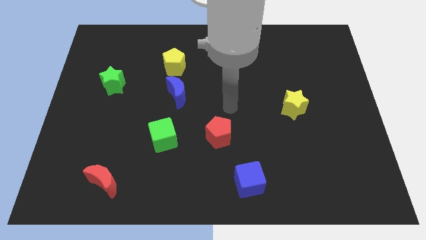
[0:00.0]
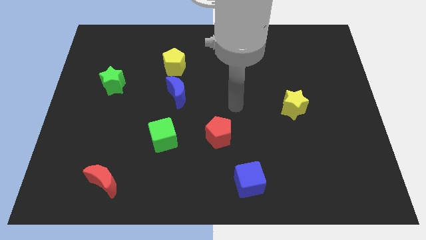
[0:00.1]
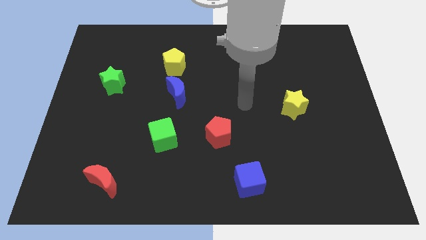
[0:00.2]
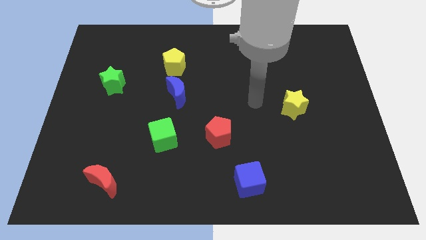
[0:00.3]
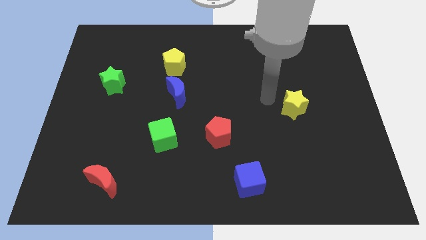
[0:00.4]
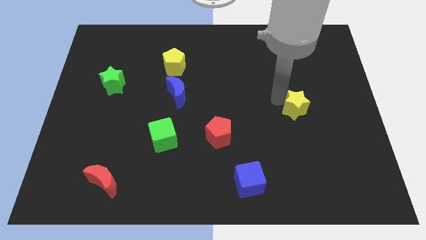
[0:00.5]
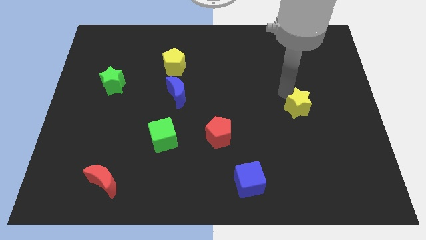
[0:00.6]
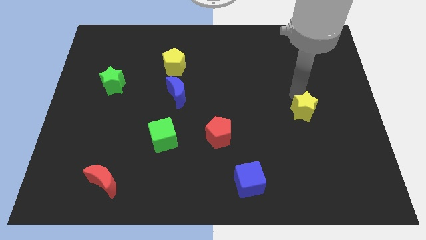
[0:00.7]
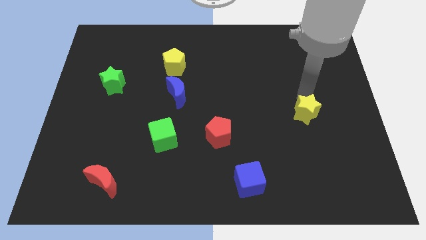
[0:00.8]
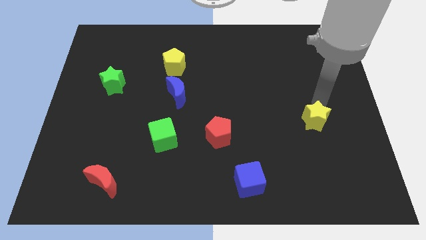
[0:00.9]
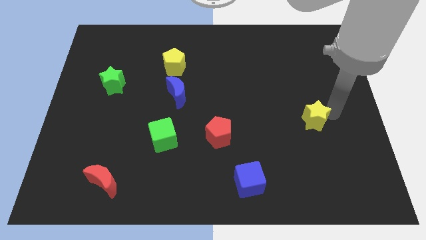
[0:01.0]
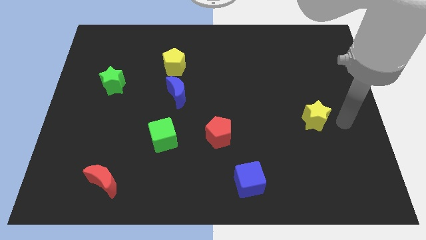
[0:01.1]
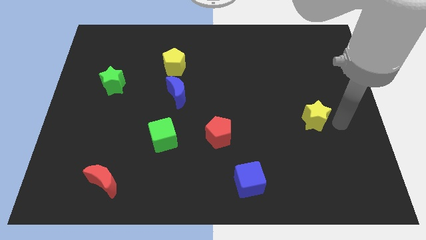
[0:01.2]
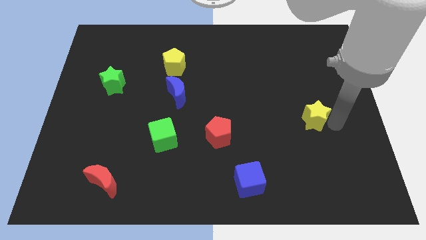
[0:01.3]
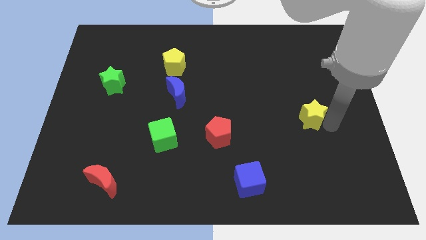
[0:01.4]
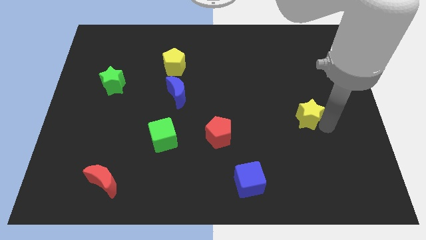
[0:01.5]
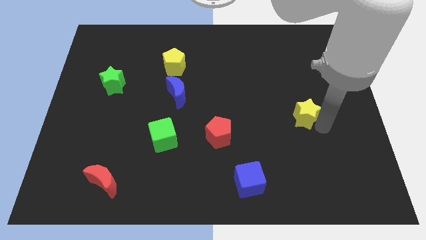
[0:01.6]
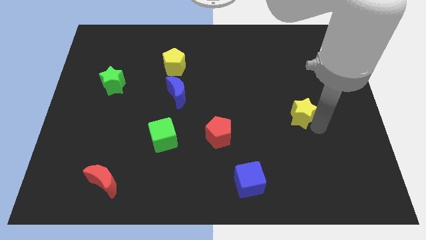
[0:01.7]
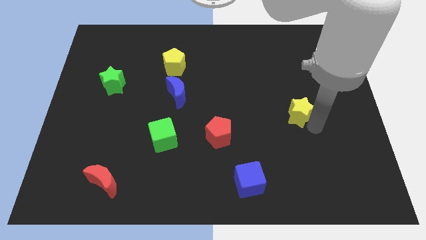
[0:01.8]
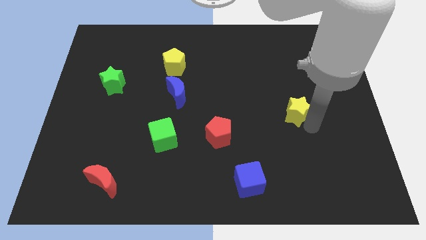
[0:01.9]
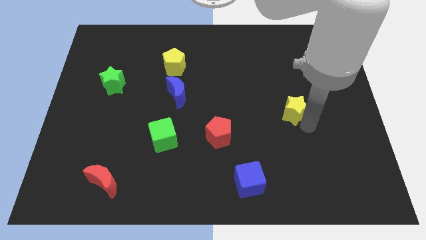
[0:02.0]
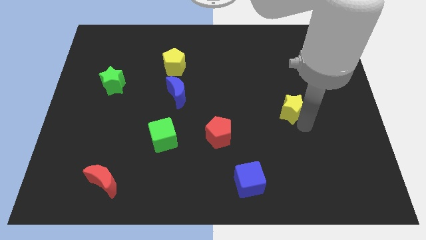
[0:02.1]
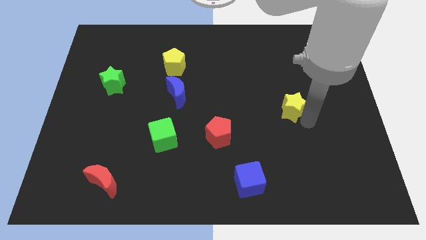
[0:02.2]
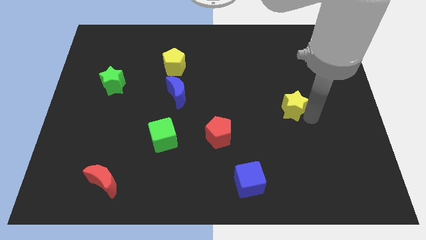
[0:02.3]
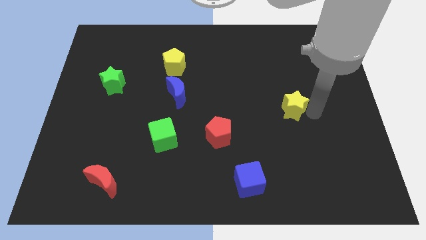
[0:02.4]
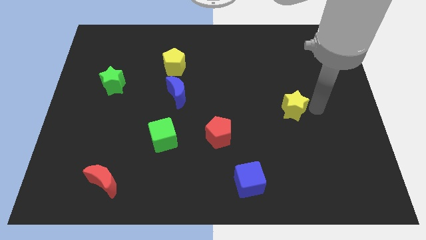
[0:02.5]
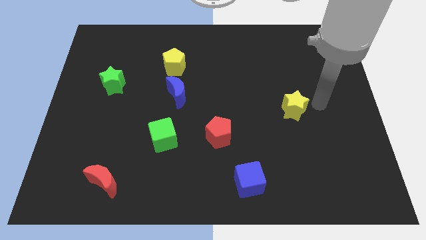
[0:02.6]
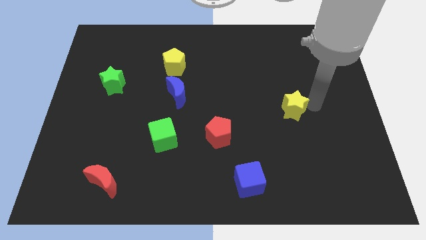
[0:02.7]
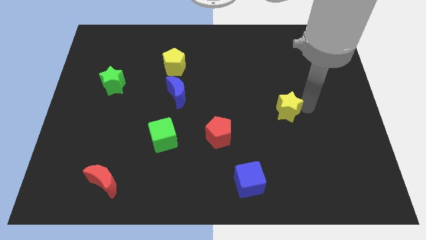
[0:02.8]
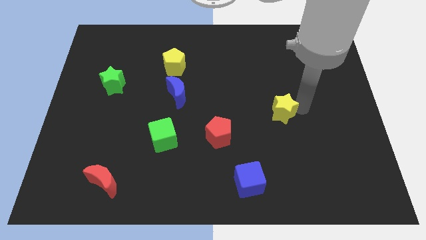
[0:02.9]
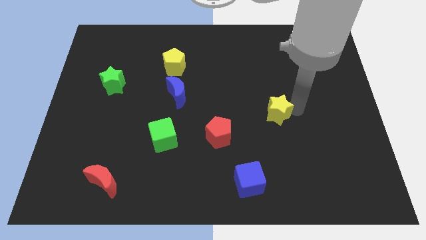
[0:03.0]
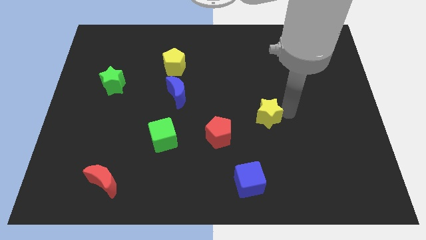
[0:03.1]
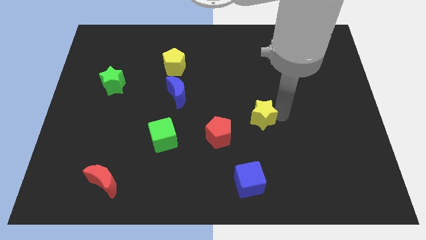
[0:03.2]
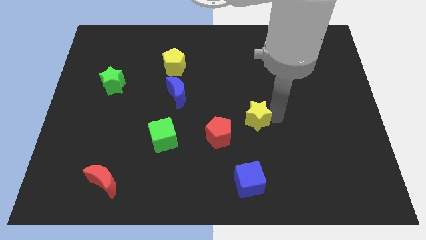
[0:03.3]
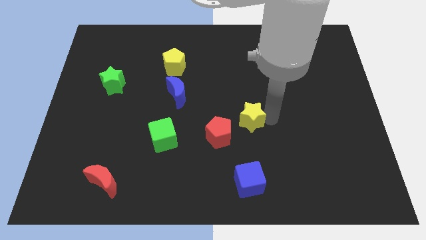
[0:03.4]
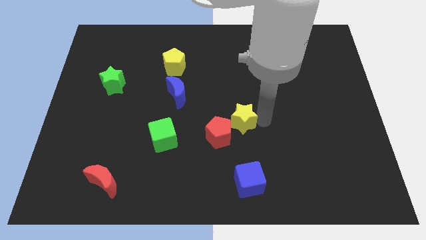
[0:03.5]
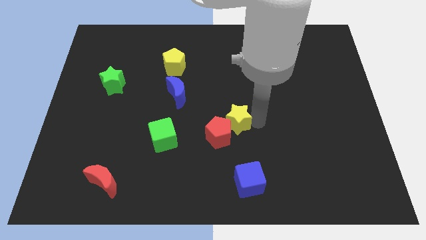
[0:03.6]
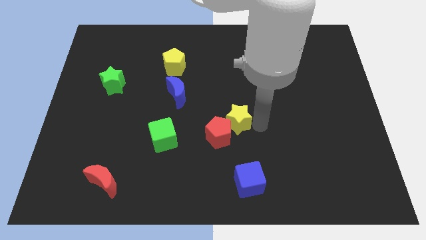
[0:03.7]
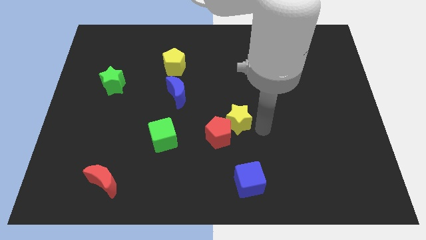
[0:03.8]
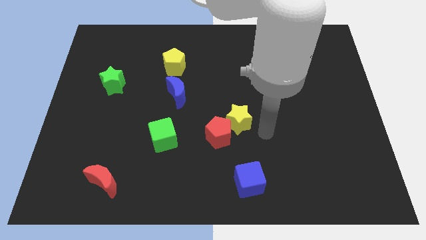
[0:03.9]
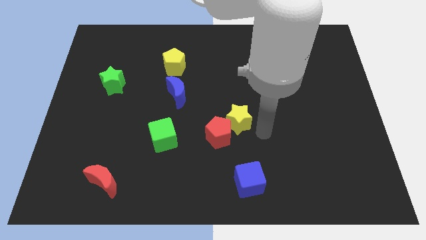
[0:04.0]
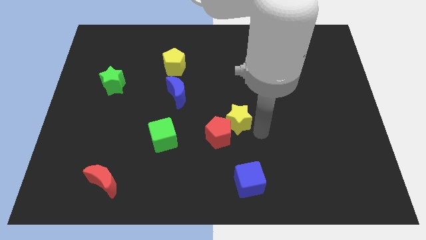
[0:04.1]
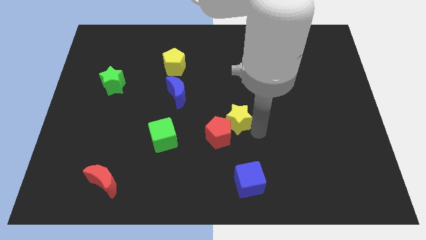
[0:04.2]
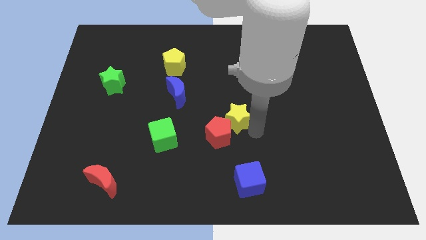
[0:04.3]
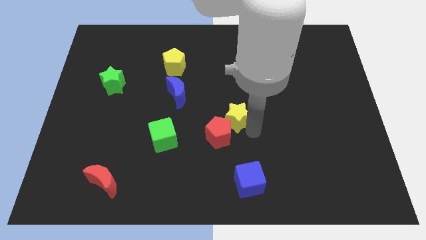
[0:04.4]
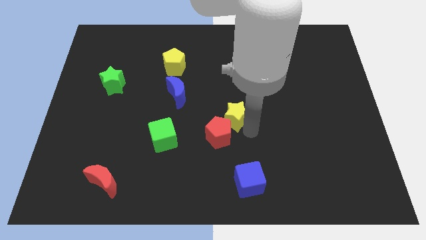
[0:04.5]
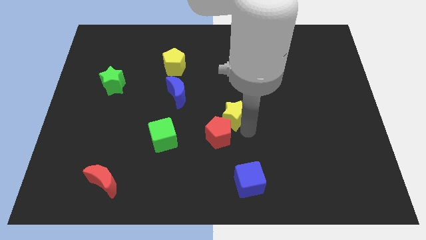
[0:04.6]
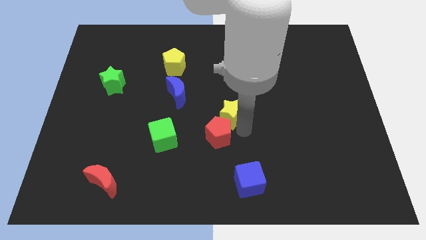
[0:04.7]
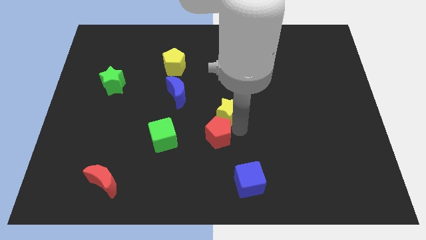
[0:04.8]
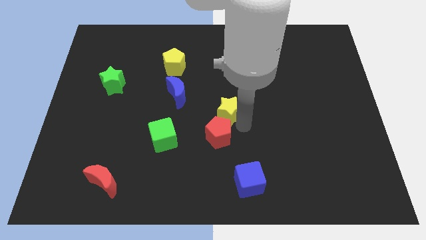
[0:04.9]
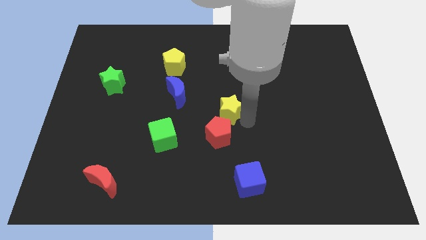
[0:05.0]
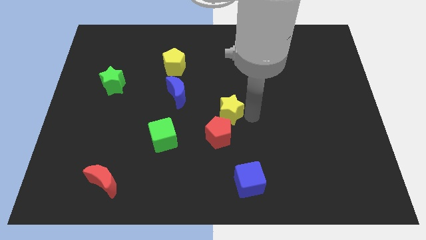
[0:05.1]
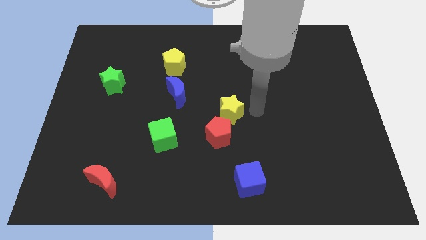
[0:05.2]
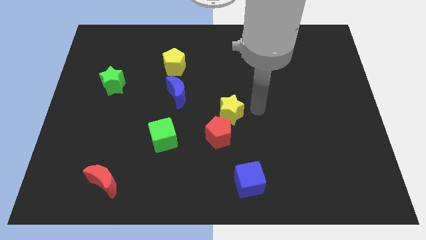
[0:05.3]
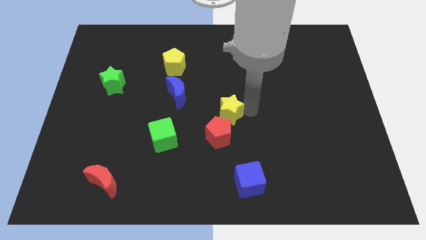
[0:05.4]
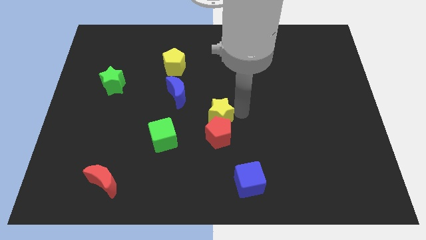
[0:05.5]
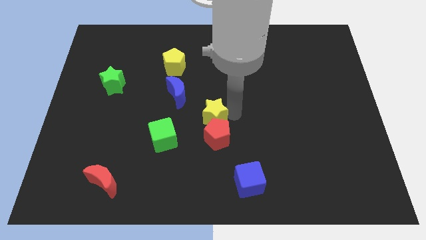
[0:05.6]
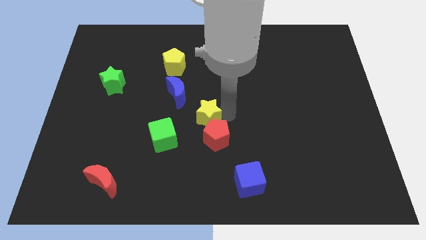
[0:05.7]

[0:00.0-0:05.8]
move the yellow star to the left

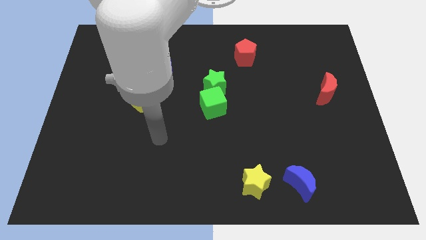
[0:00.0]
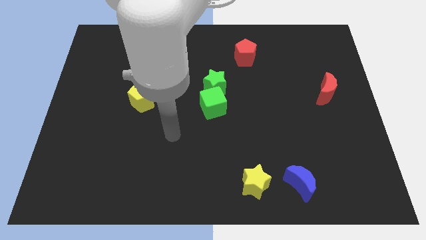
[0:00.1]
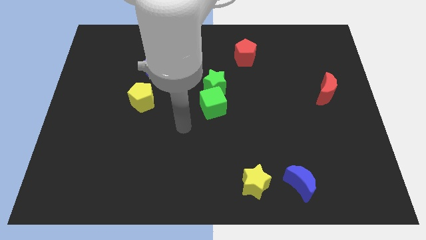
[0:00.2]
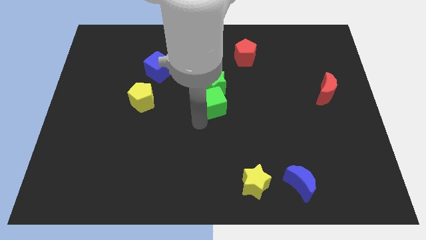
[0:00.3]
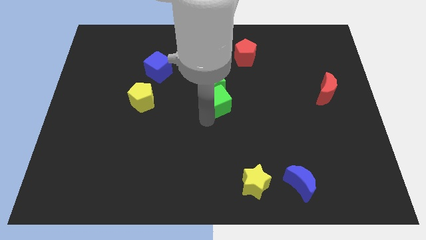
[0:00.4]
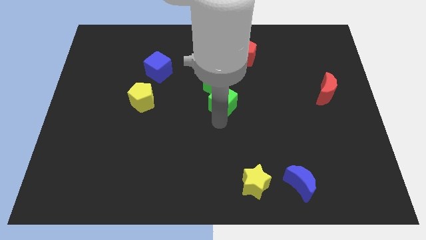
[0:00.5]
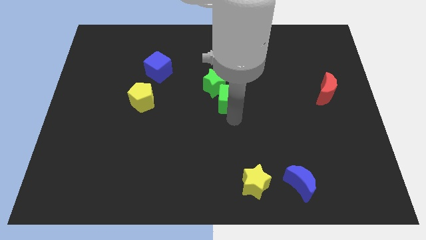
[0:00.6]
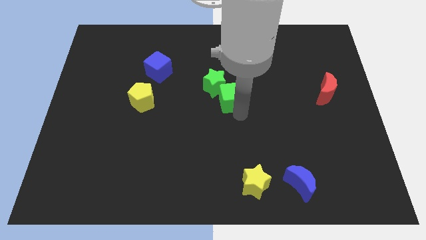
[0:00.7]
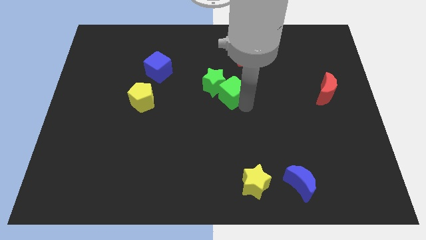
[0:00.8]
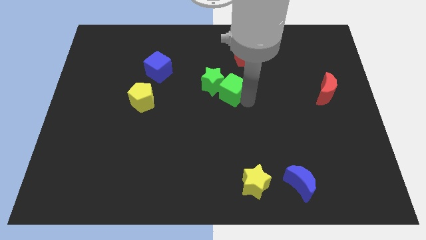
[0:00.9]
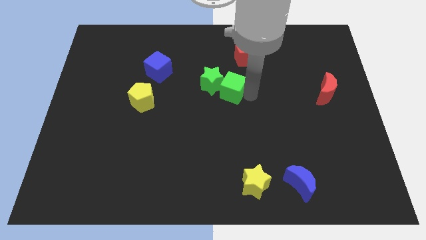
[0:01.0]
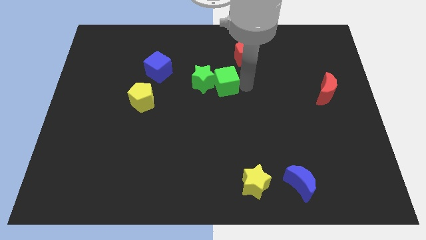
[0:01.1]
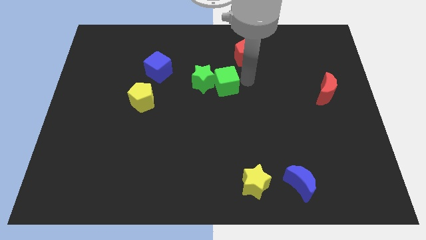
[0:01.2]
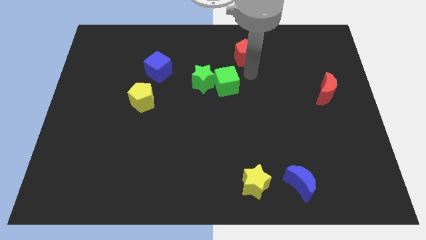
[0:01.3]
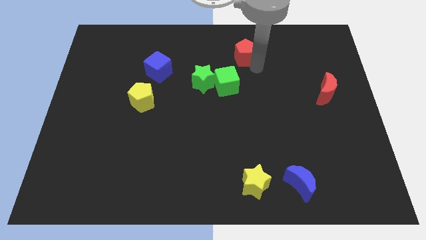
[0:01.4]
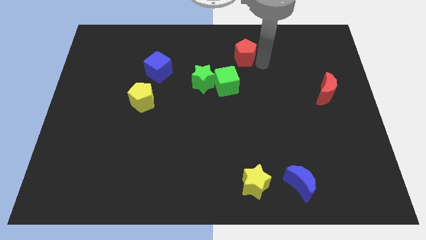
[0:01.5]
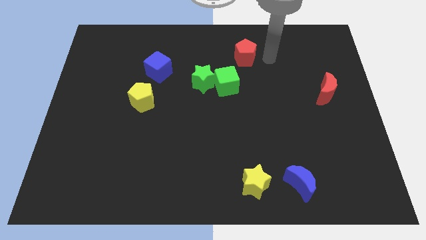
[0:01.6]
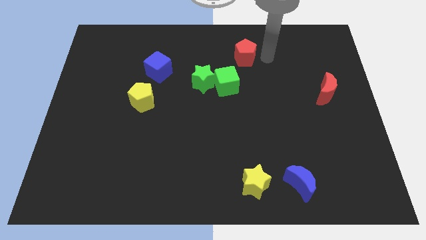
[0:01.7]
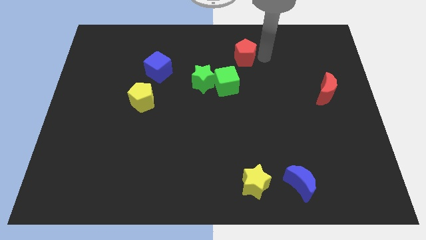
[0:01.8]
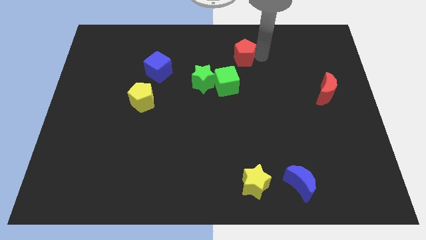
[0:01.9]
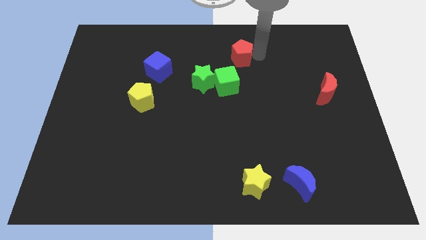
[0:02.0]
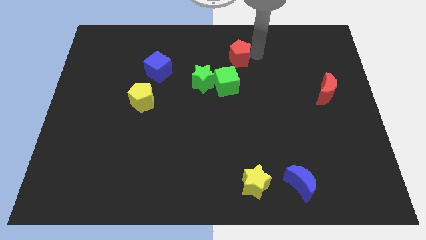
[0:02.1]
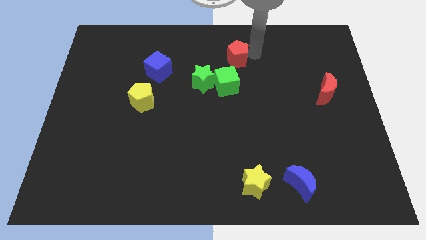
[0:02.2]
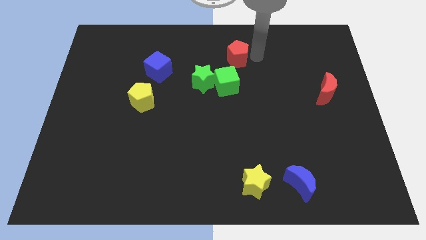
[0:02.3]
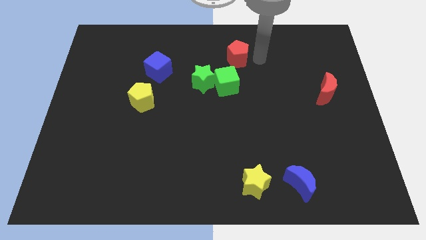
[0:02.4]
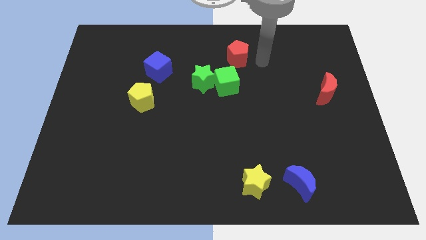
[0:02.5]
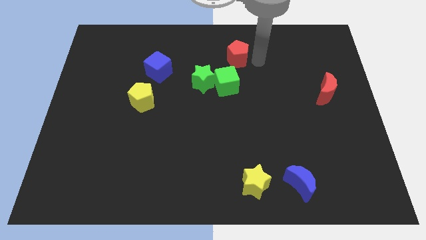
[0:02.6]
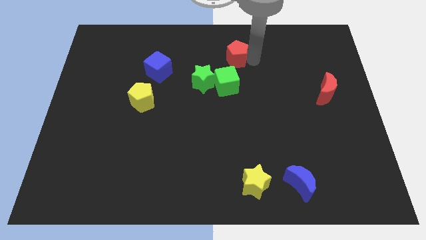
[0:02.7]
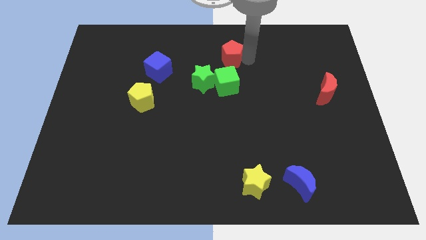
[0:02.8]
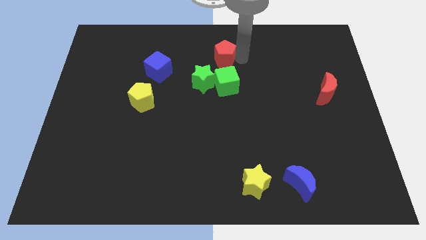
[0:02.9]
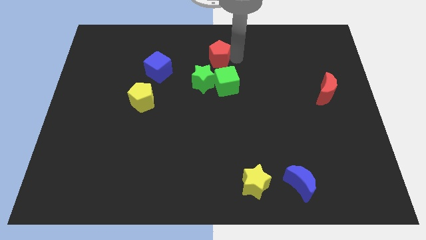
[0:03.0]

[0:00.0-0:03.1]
slightly move the red pentagon left
